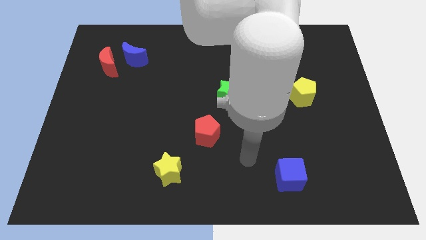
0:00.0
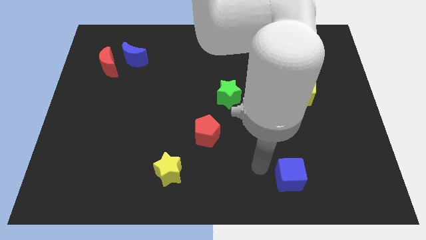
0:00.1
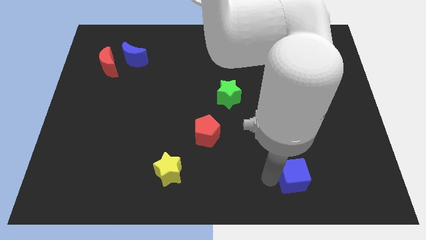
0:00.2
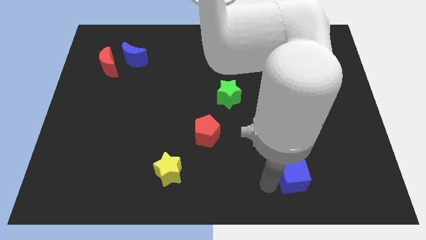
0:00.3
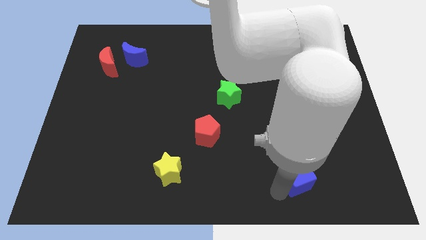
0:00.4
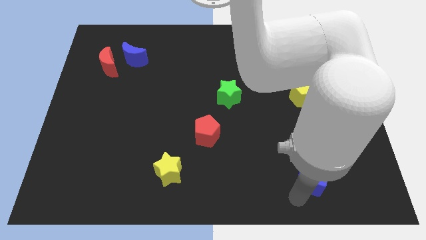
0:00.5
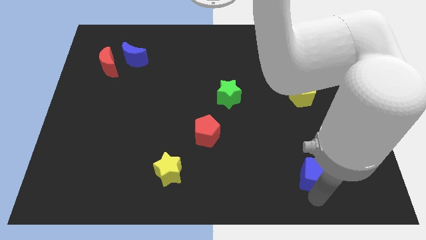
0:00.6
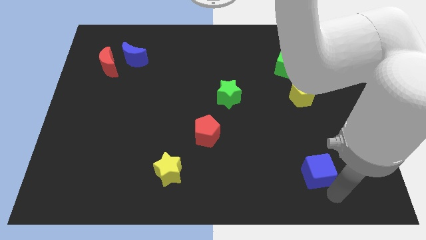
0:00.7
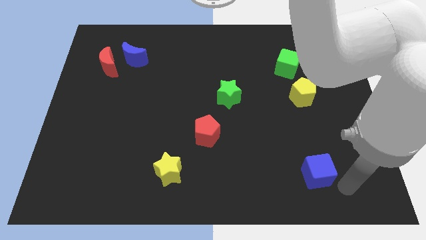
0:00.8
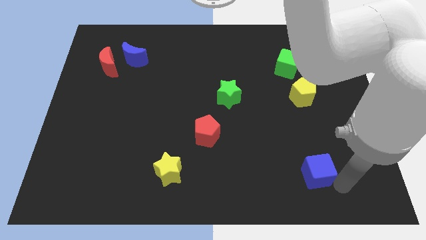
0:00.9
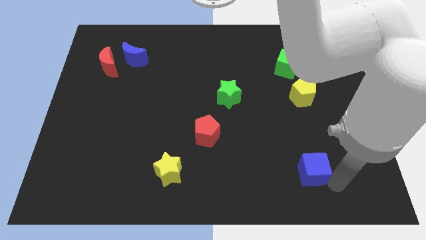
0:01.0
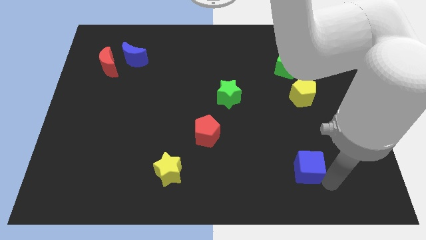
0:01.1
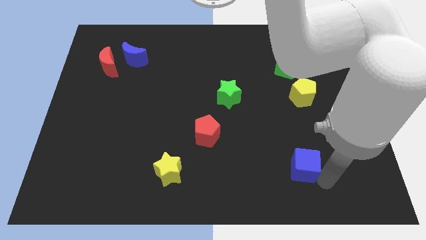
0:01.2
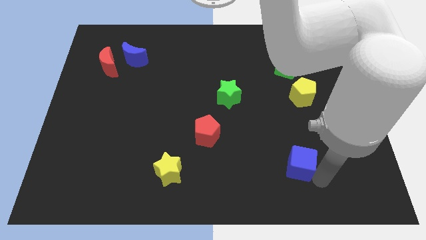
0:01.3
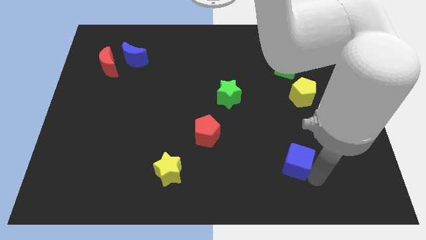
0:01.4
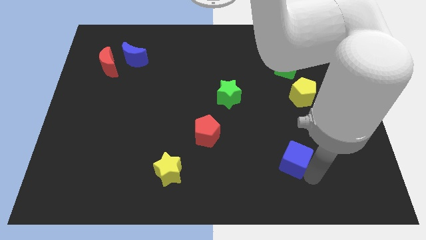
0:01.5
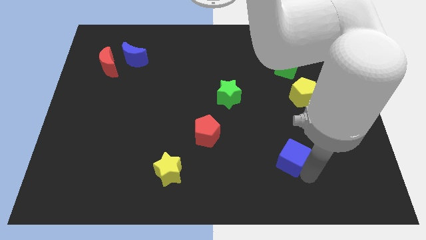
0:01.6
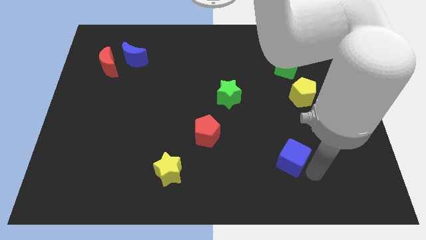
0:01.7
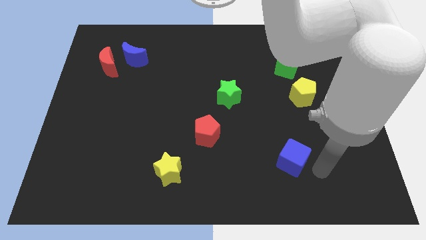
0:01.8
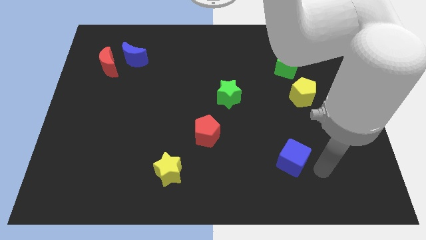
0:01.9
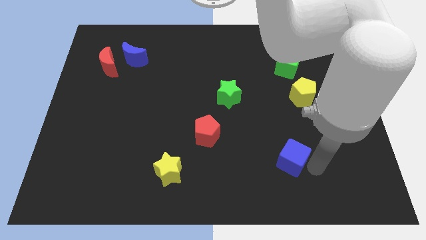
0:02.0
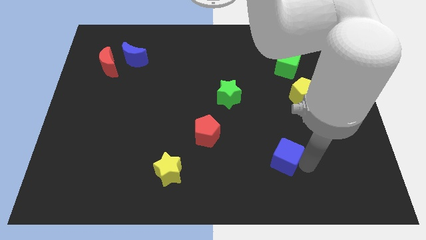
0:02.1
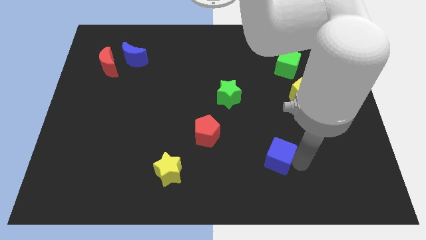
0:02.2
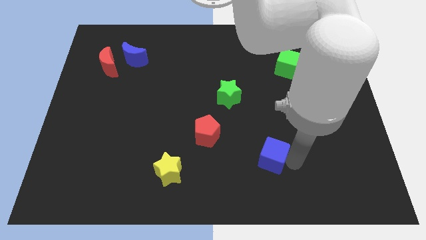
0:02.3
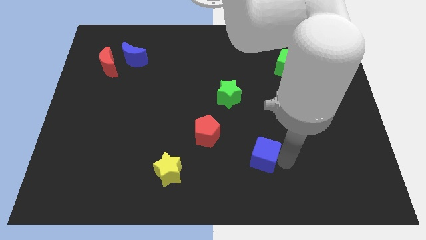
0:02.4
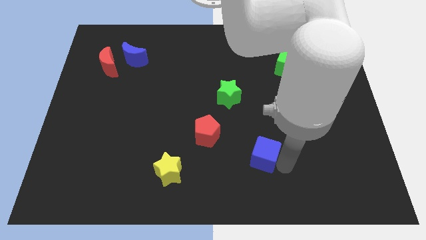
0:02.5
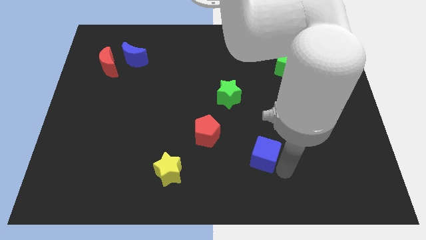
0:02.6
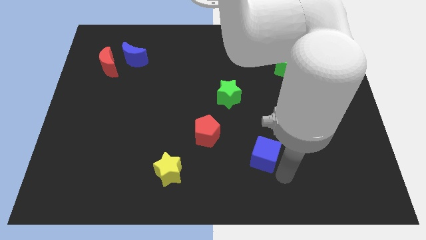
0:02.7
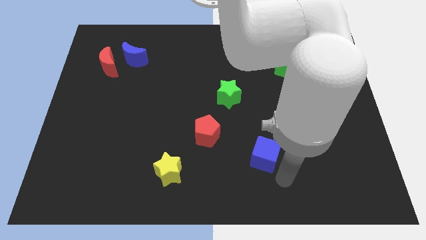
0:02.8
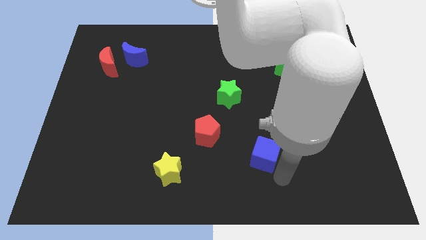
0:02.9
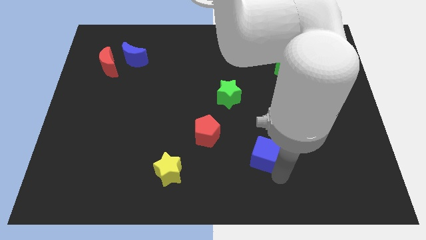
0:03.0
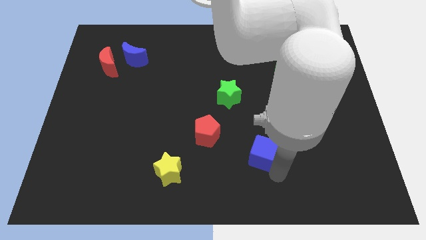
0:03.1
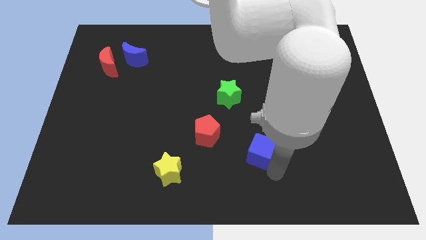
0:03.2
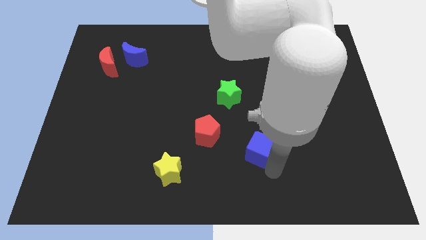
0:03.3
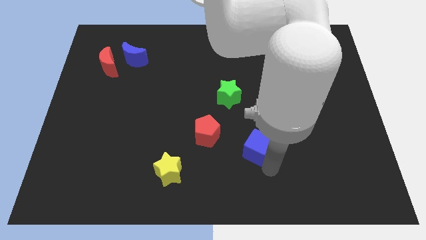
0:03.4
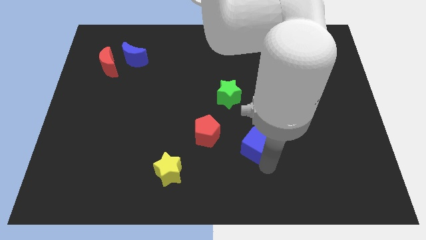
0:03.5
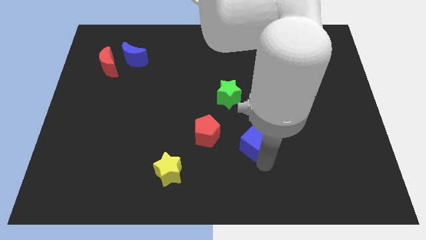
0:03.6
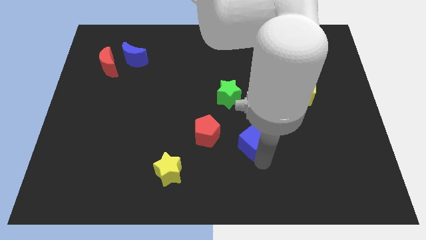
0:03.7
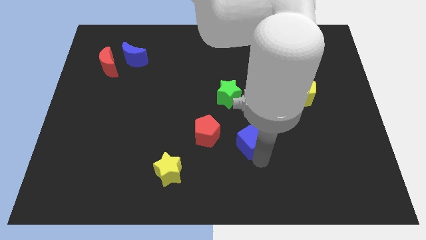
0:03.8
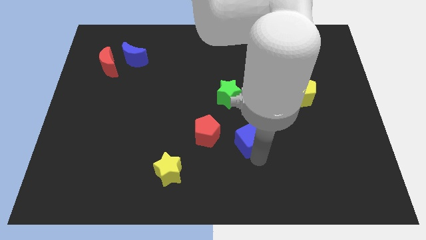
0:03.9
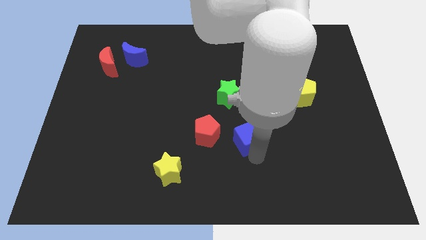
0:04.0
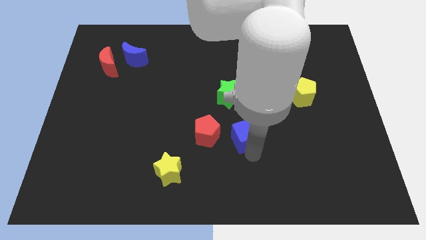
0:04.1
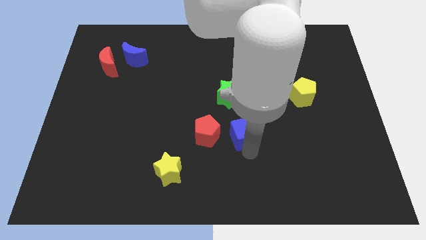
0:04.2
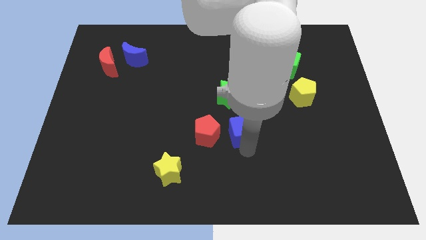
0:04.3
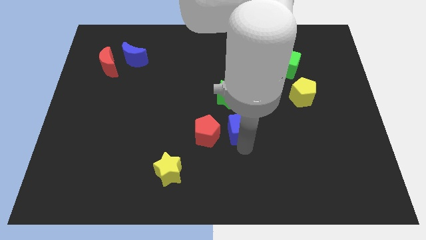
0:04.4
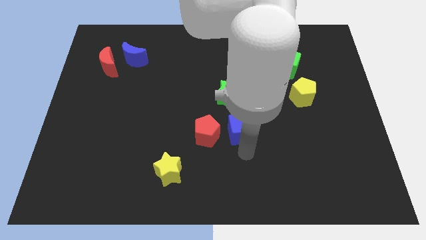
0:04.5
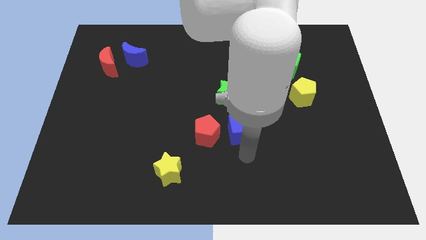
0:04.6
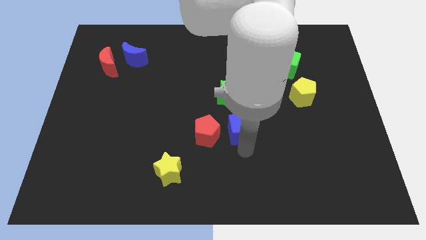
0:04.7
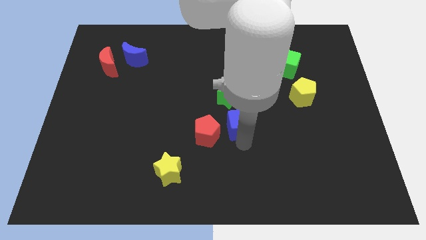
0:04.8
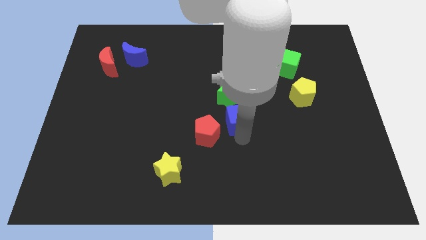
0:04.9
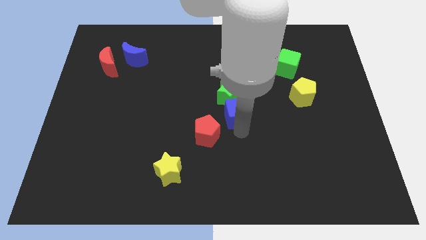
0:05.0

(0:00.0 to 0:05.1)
push the blue cube close to the green star

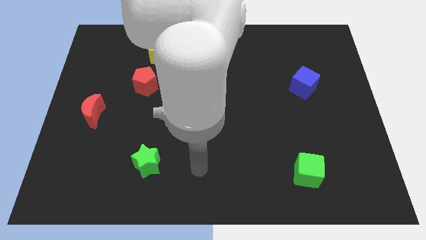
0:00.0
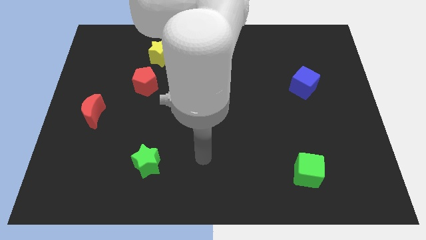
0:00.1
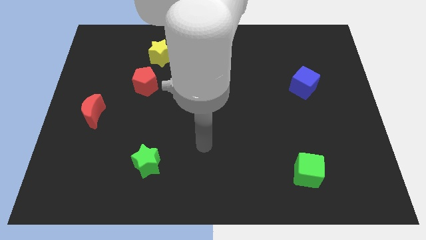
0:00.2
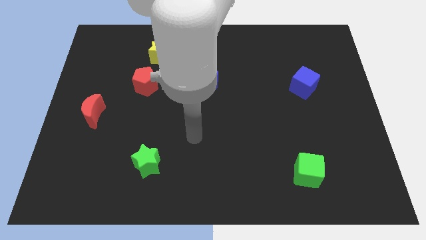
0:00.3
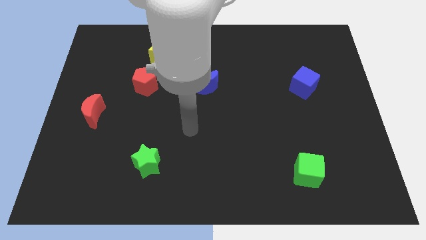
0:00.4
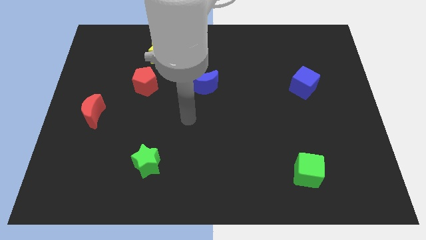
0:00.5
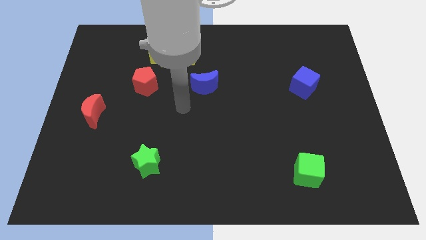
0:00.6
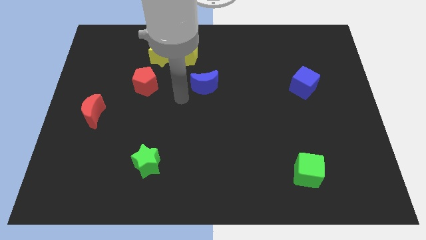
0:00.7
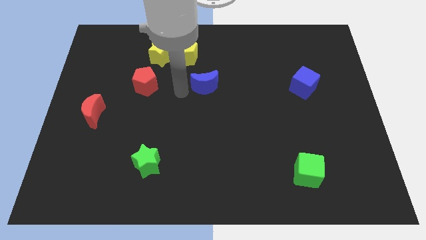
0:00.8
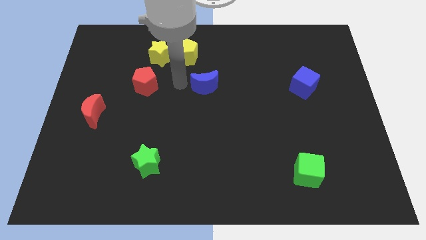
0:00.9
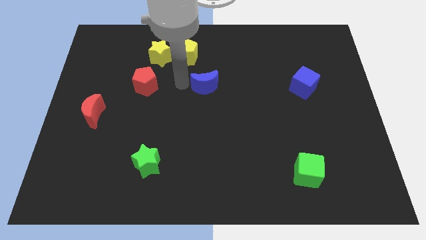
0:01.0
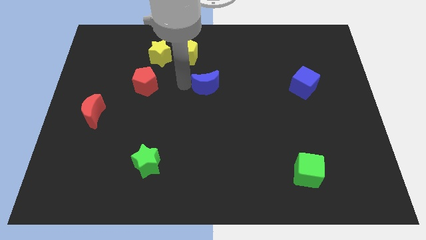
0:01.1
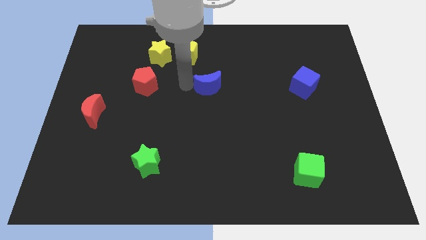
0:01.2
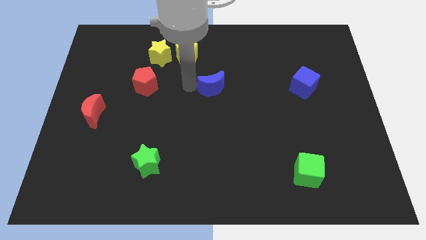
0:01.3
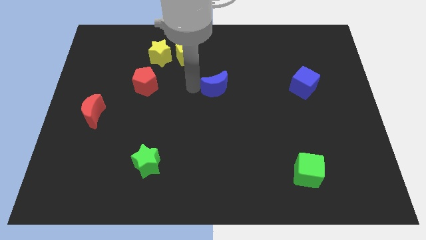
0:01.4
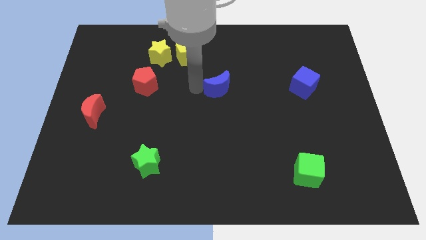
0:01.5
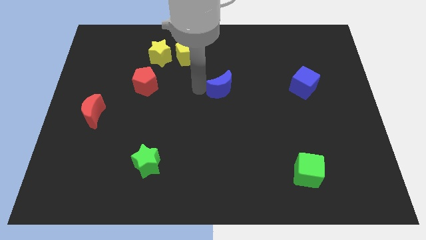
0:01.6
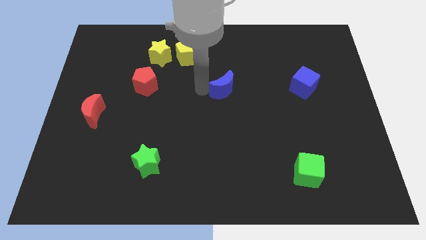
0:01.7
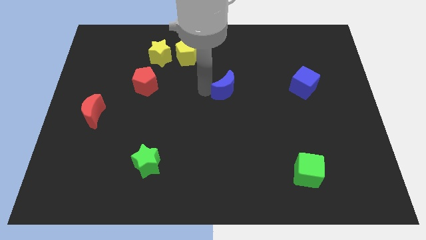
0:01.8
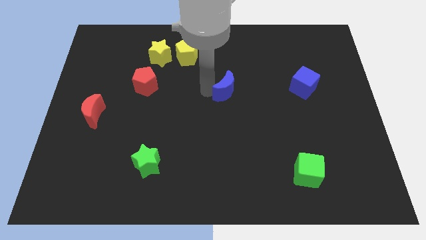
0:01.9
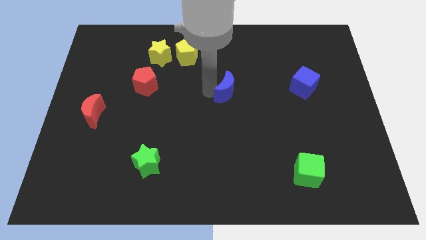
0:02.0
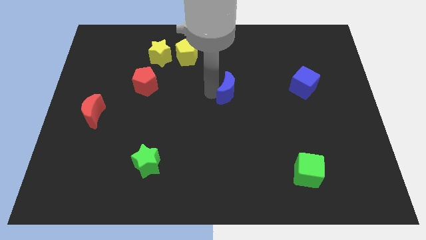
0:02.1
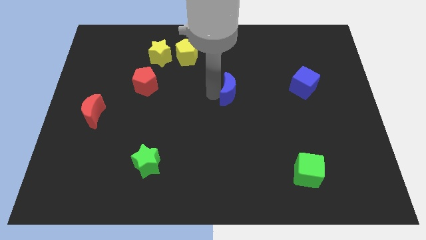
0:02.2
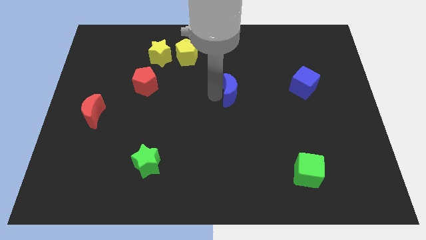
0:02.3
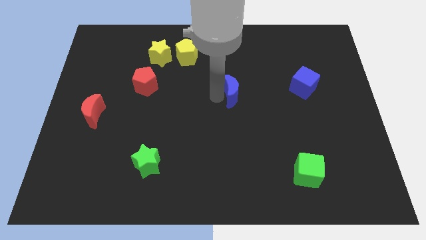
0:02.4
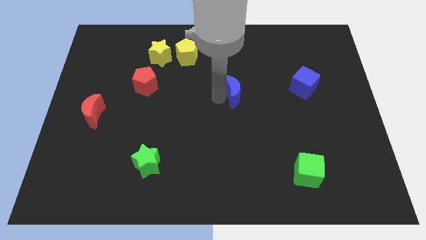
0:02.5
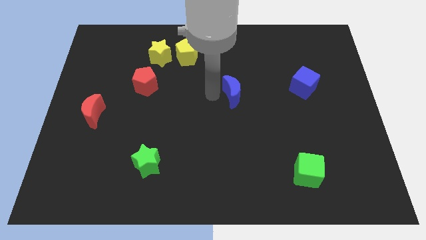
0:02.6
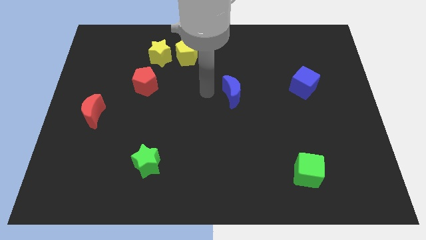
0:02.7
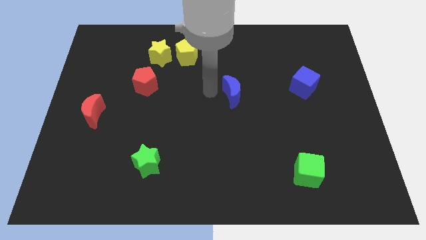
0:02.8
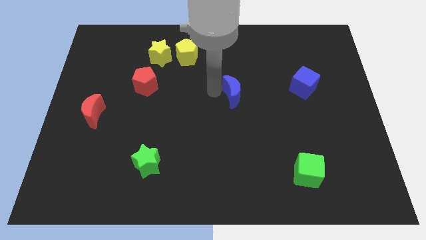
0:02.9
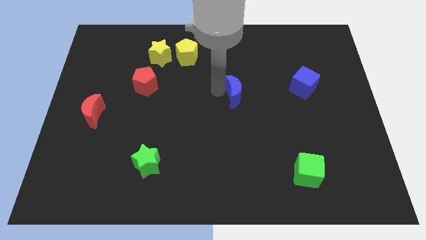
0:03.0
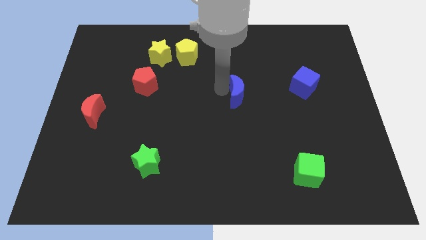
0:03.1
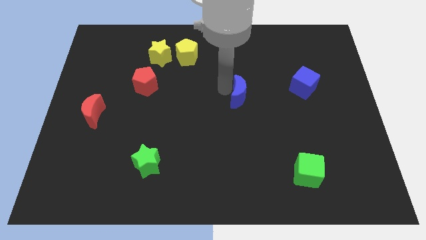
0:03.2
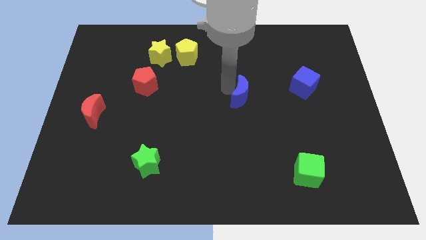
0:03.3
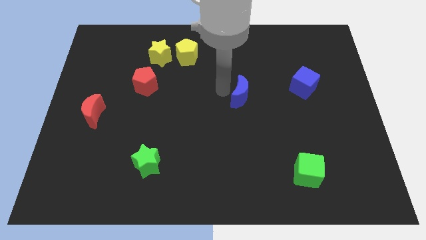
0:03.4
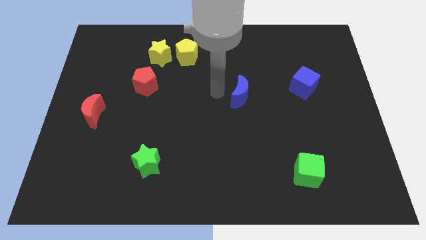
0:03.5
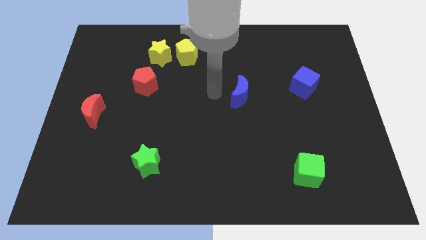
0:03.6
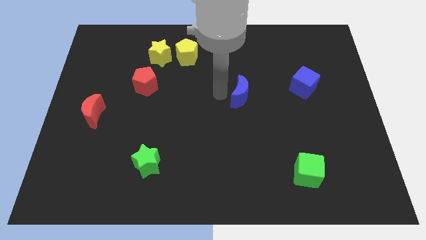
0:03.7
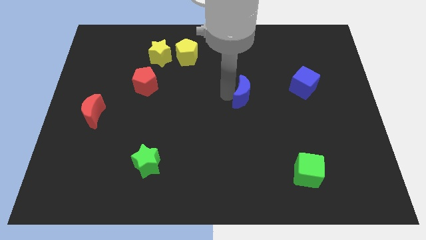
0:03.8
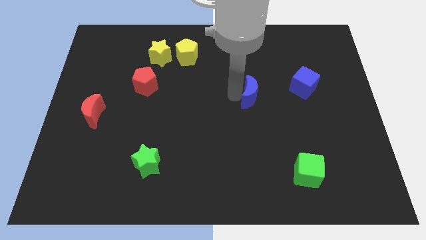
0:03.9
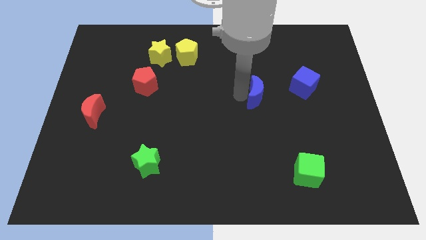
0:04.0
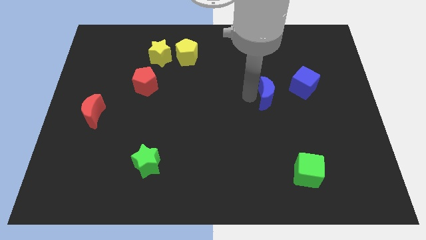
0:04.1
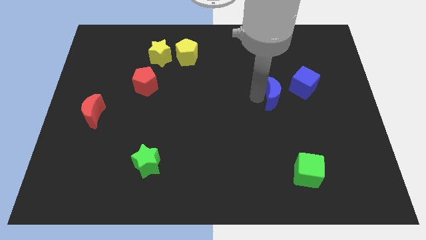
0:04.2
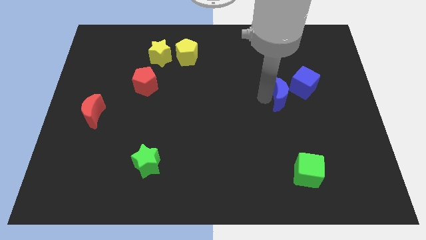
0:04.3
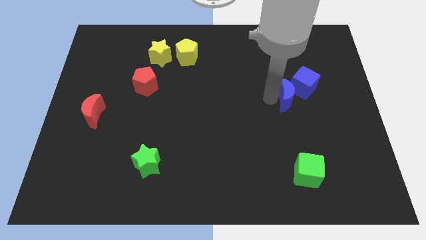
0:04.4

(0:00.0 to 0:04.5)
move the blue moon next to the blue cube
